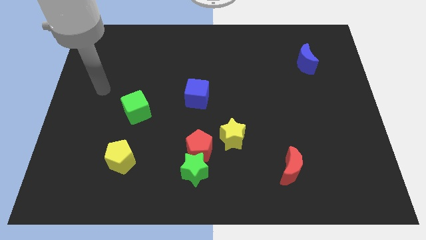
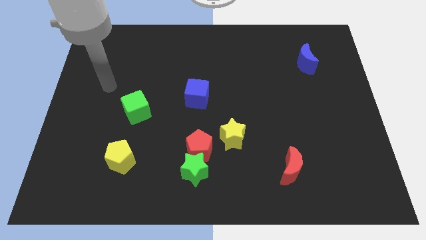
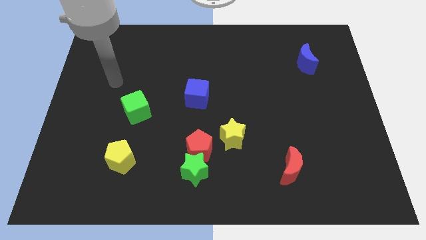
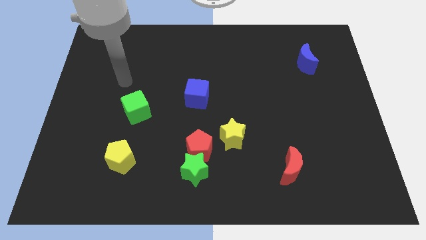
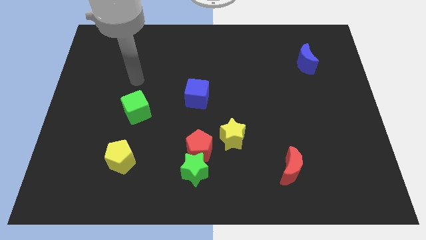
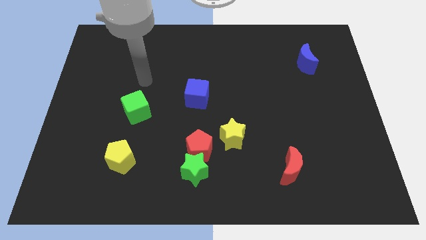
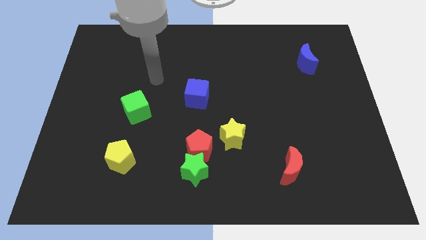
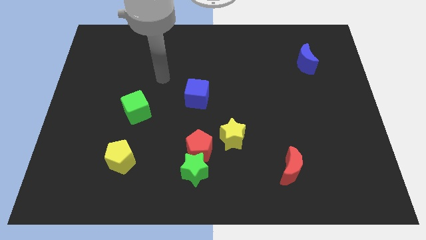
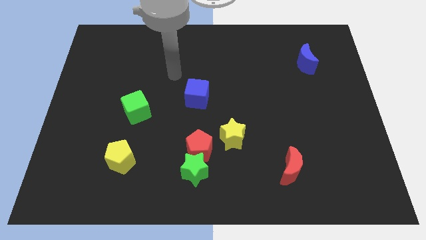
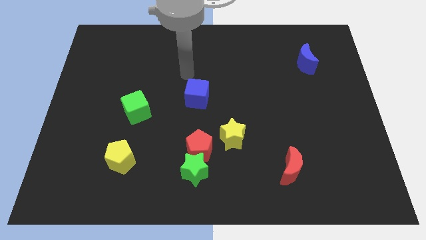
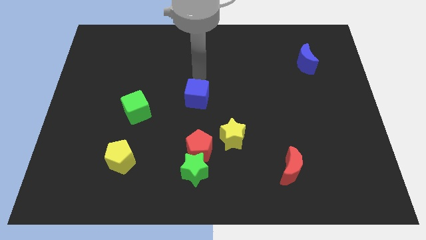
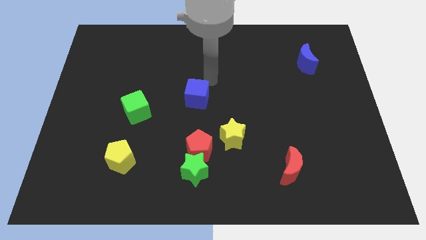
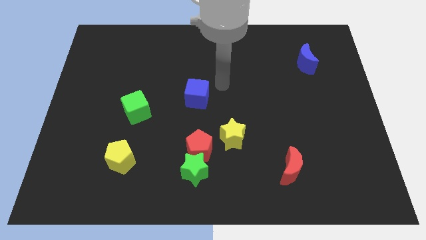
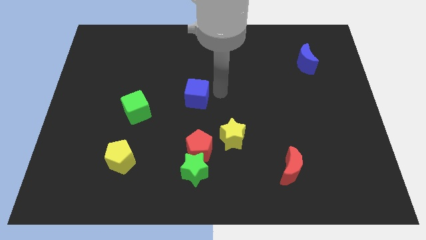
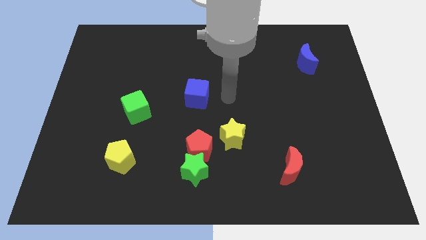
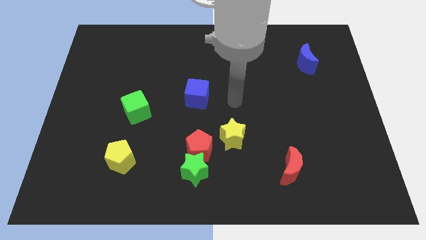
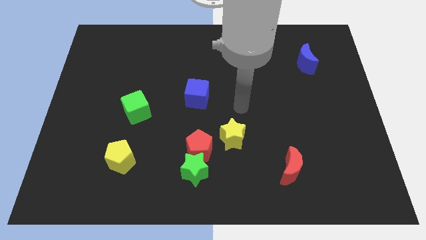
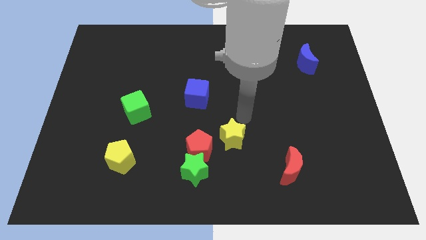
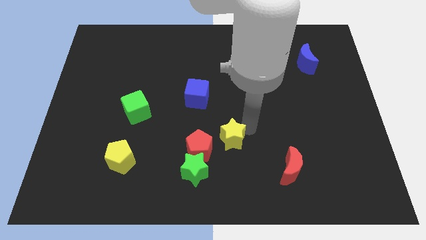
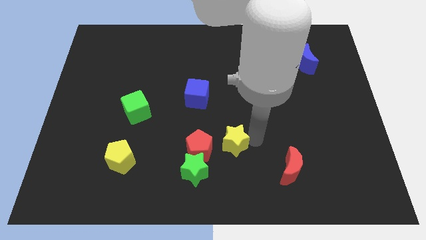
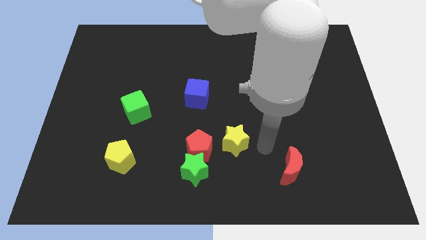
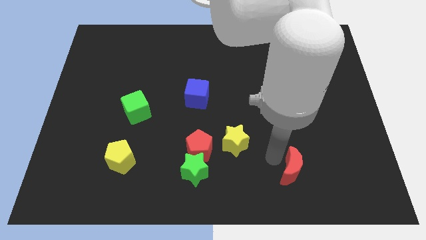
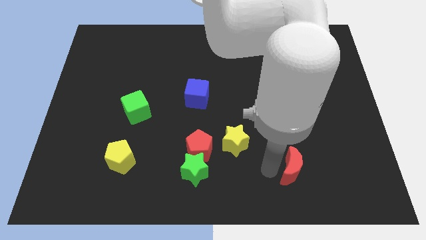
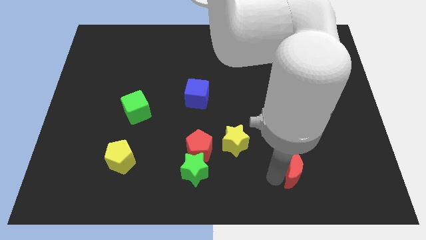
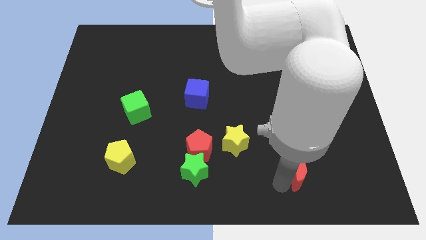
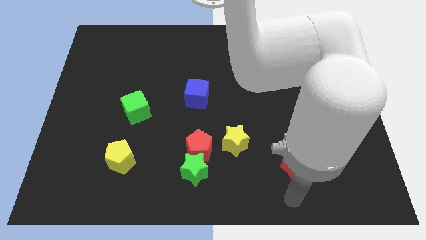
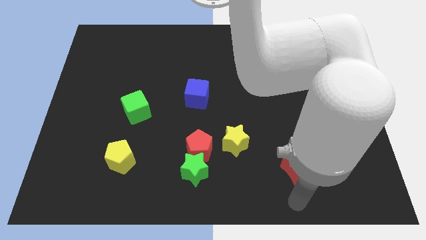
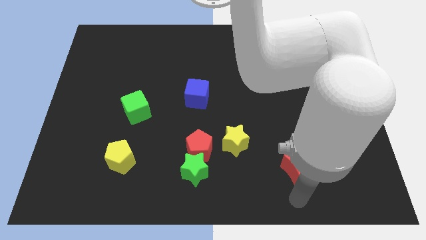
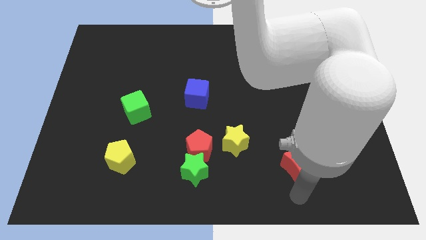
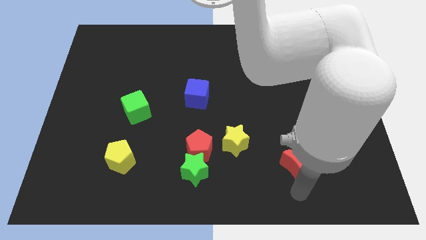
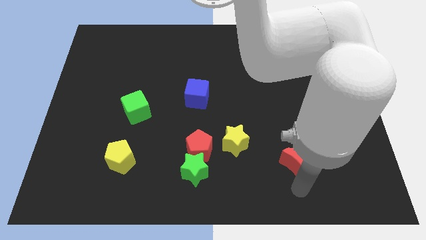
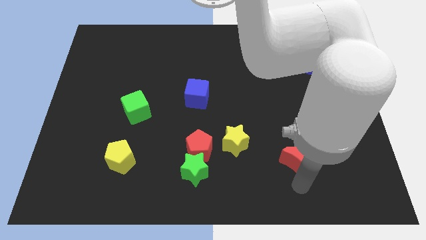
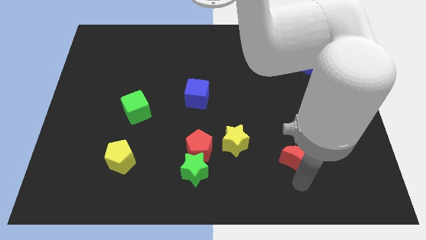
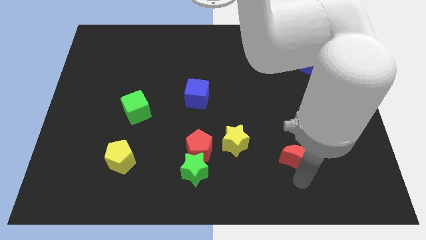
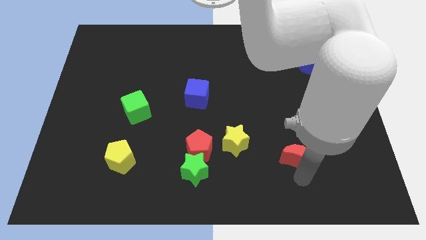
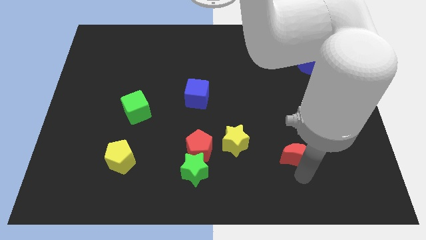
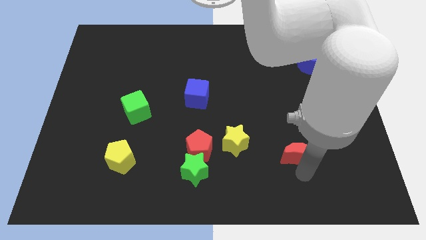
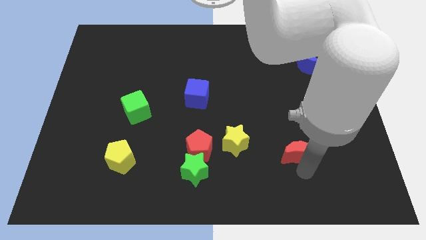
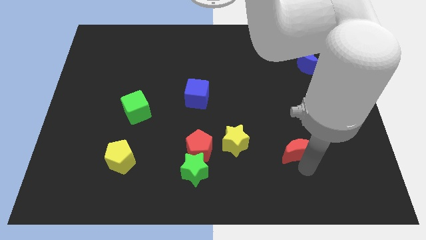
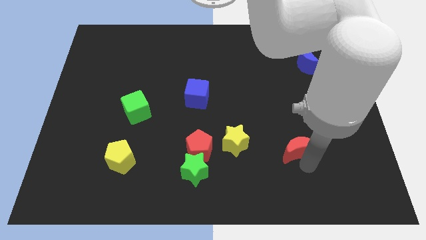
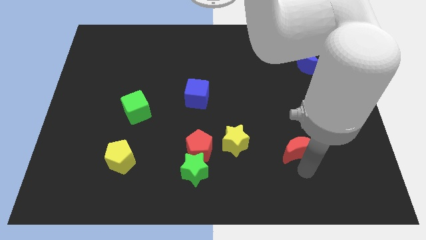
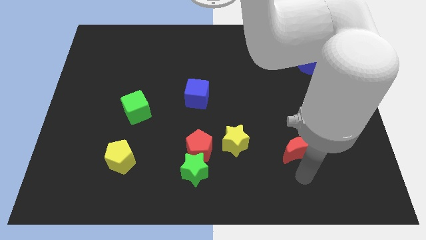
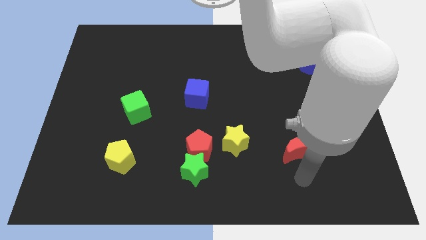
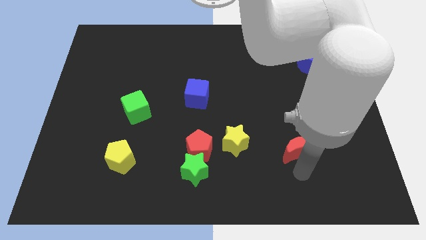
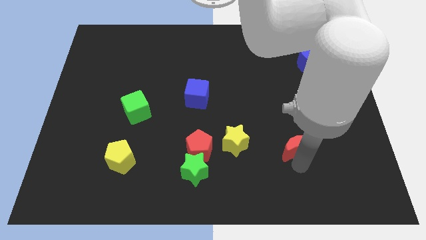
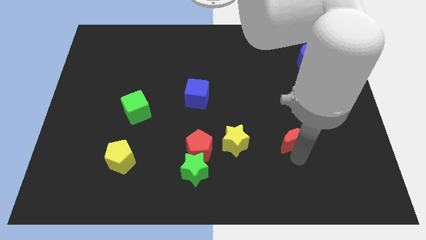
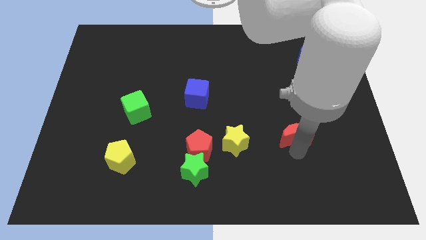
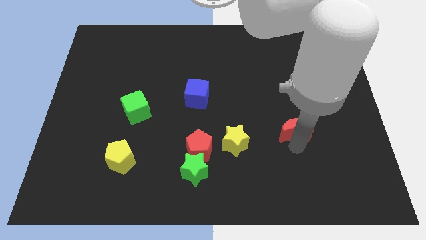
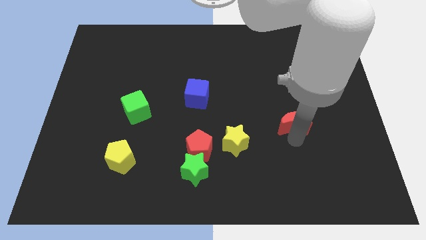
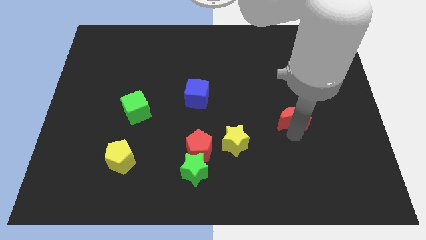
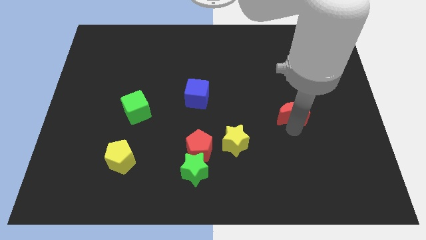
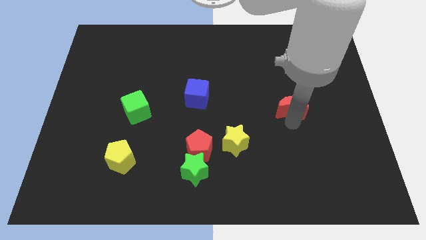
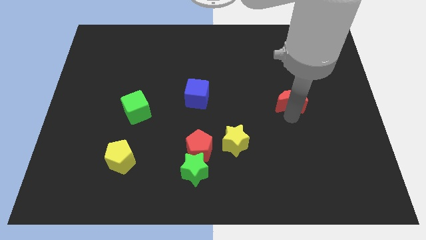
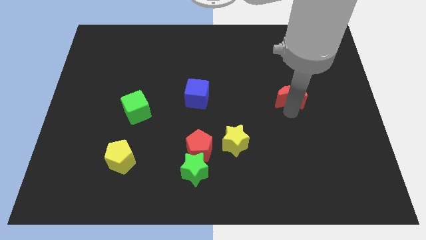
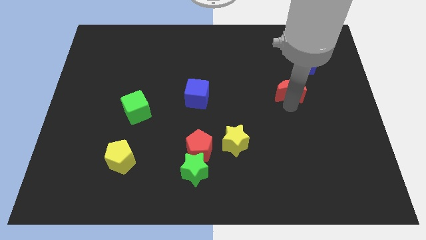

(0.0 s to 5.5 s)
put the red moon diagonally down and to the left of the blue moon

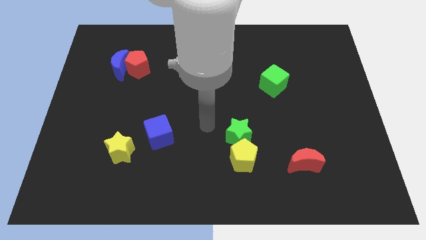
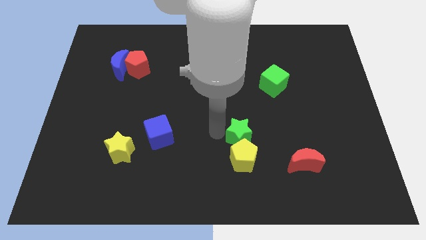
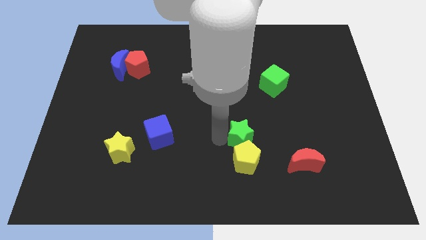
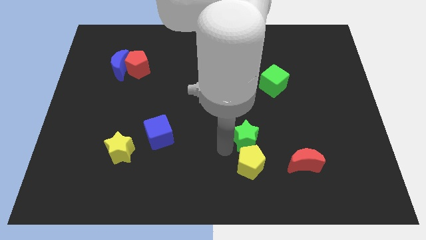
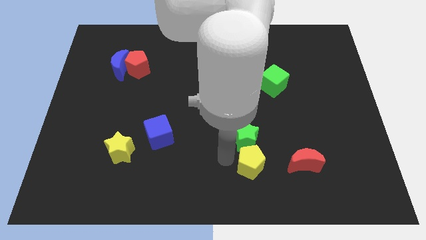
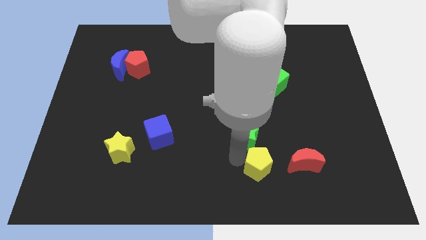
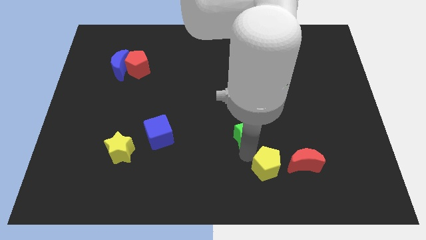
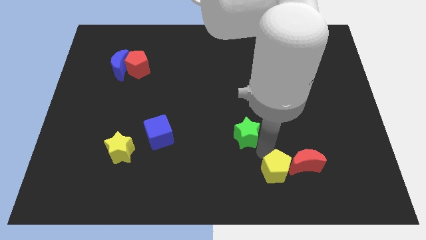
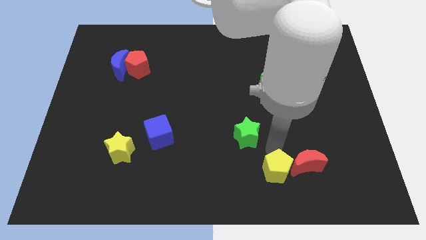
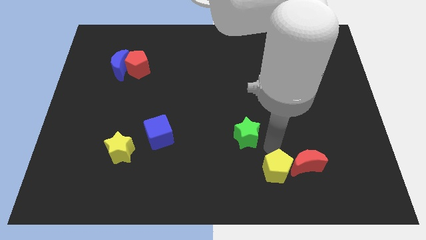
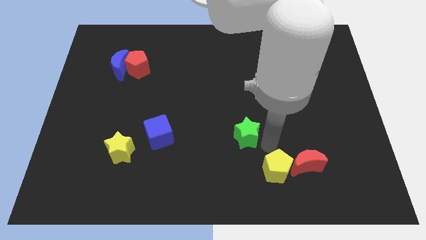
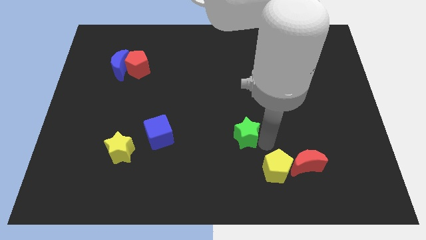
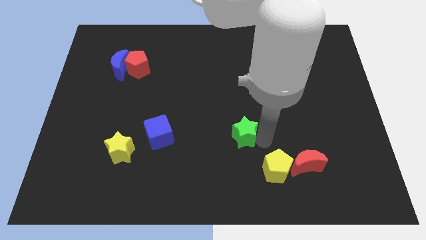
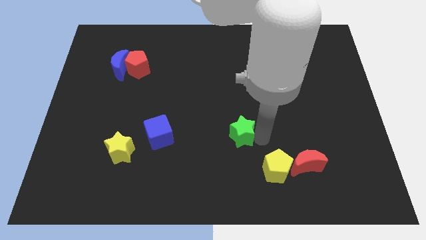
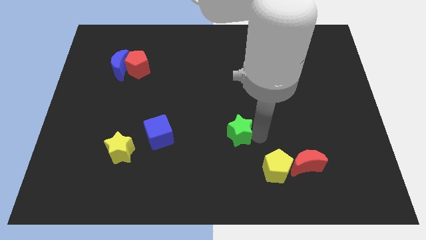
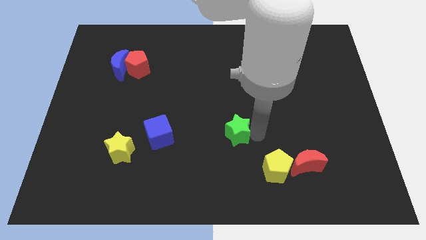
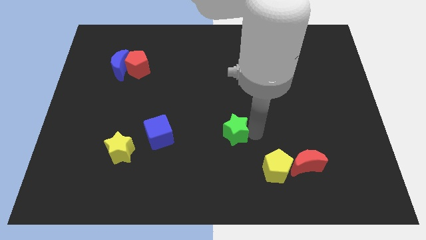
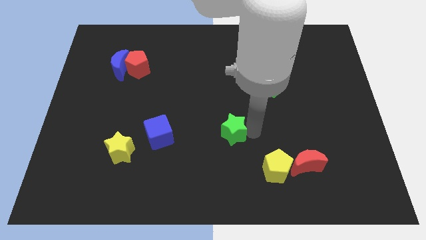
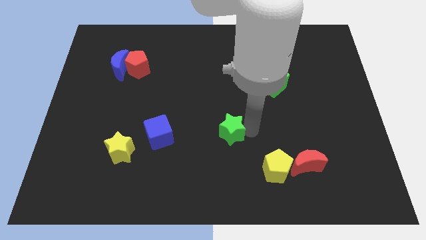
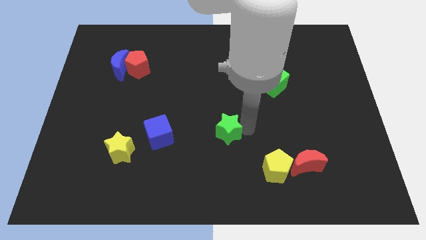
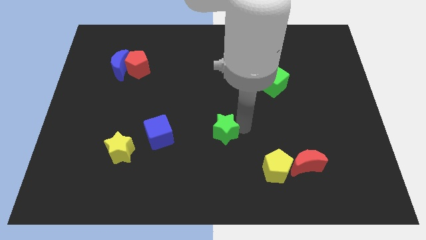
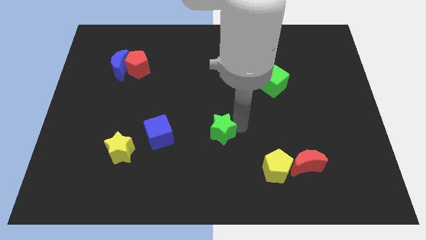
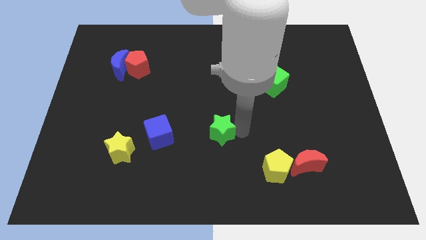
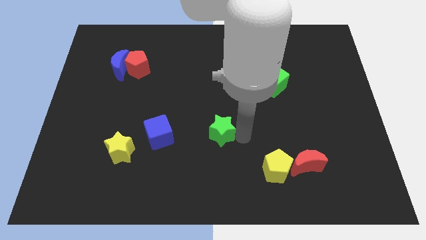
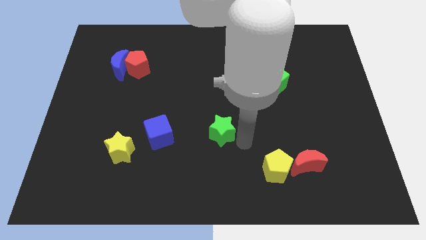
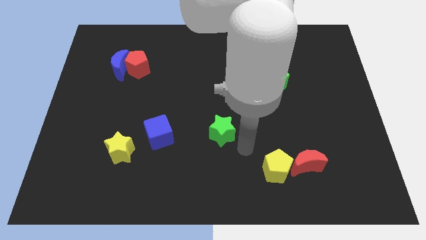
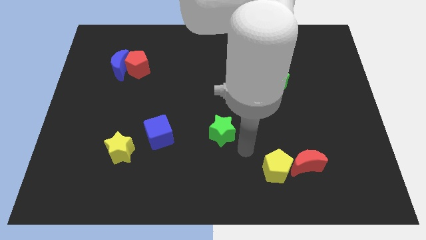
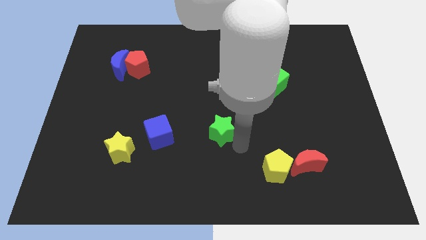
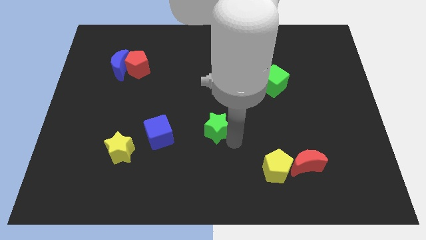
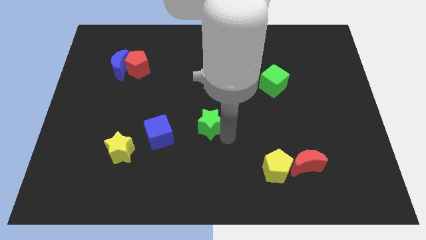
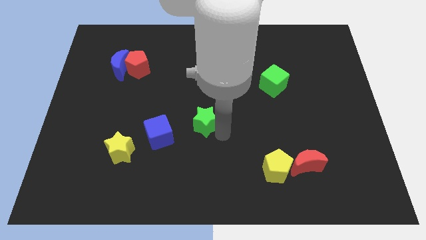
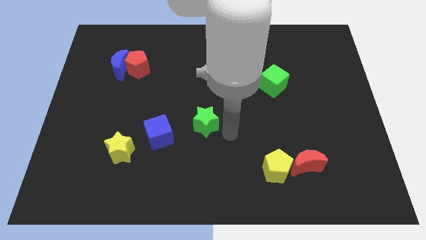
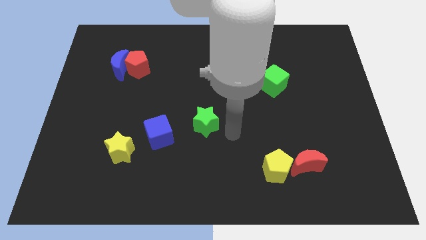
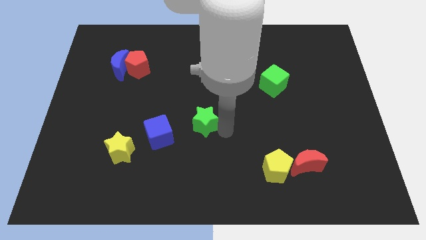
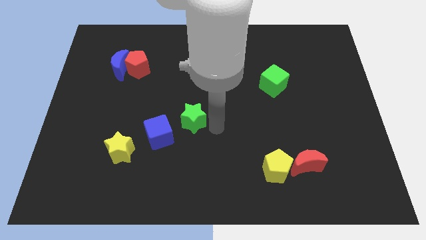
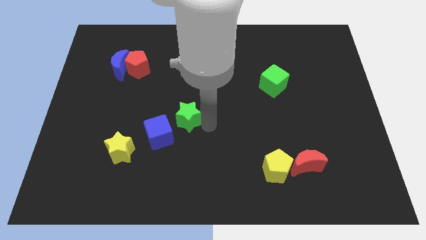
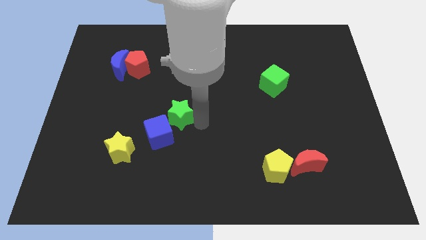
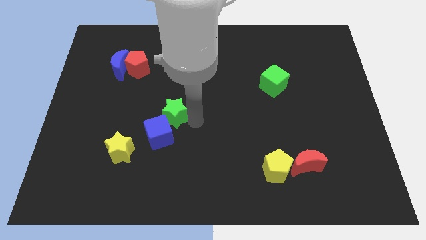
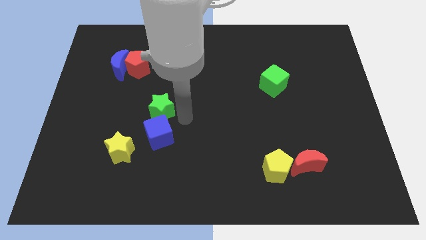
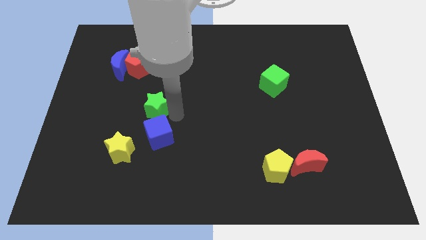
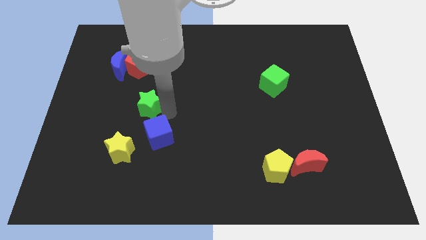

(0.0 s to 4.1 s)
slide the green star to the bottom side of the red pentagon
